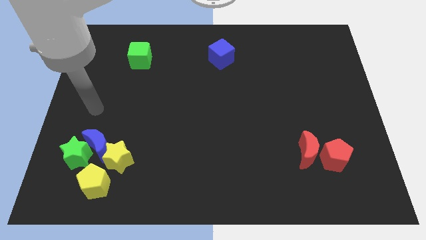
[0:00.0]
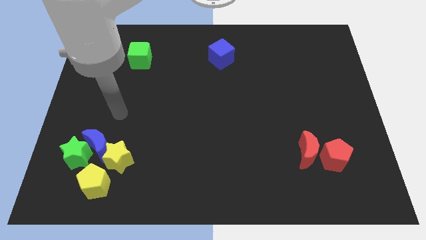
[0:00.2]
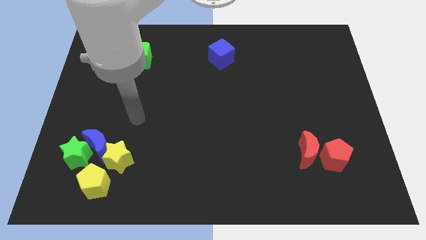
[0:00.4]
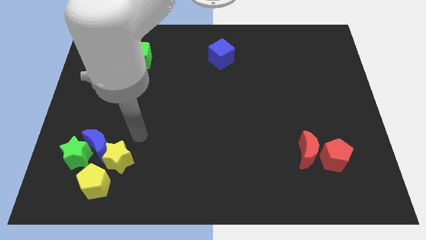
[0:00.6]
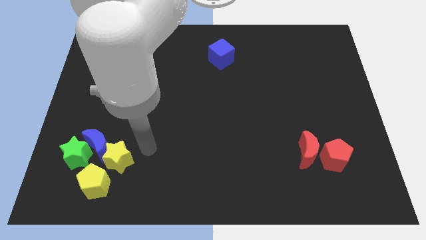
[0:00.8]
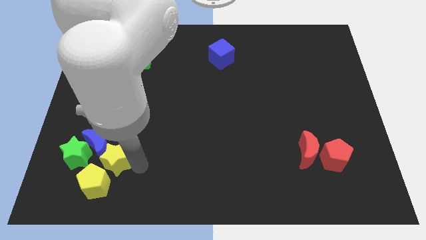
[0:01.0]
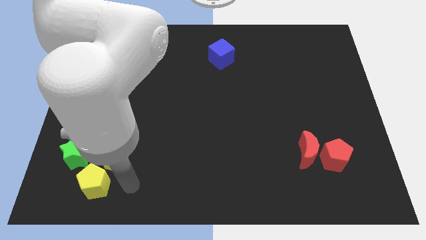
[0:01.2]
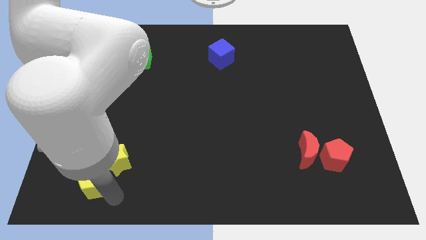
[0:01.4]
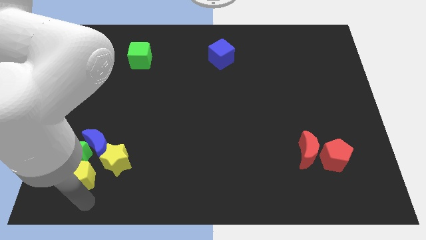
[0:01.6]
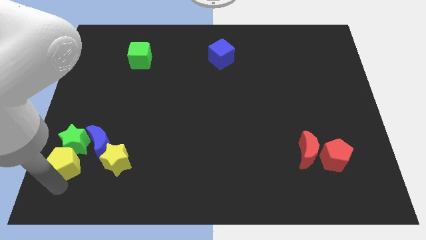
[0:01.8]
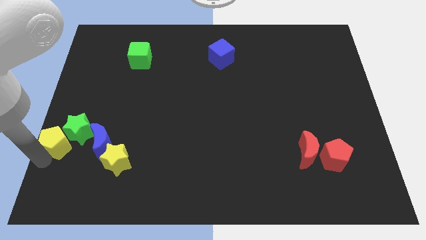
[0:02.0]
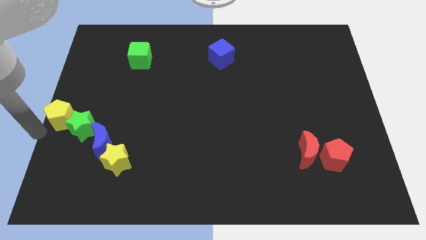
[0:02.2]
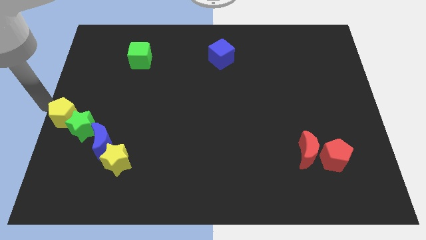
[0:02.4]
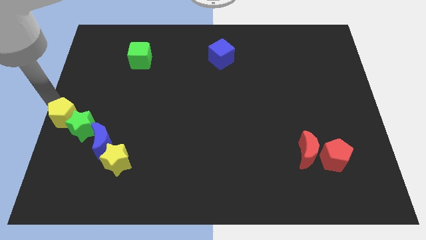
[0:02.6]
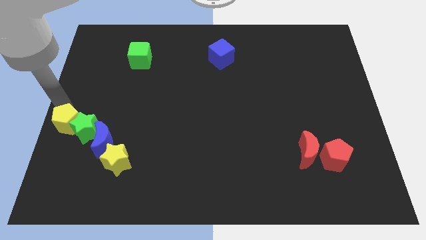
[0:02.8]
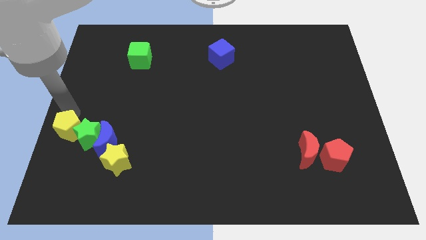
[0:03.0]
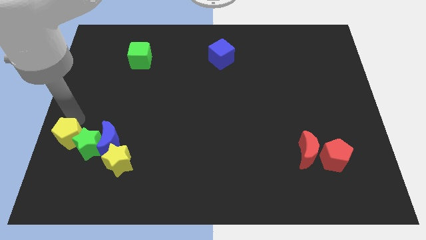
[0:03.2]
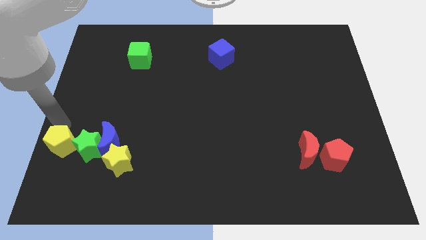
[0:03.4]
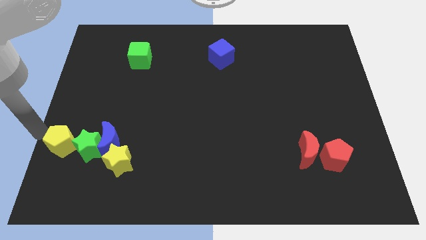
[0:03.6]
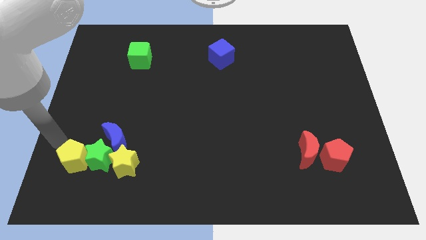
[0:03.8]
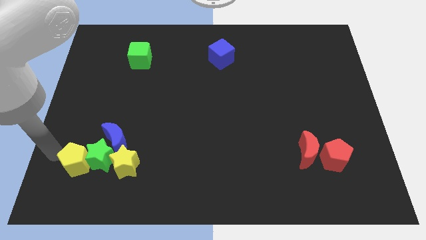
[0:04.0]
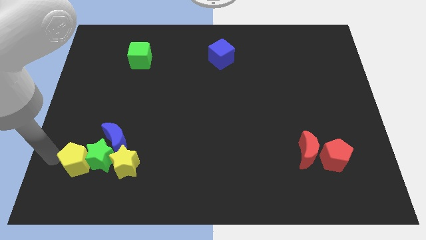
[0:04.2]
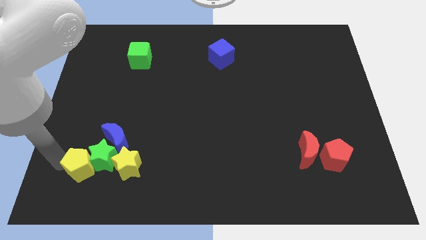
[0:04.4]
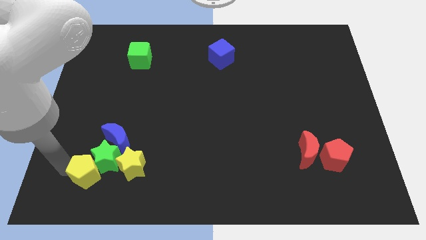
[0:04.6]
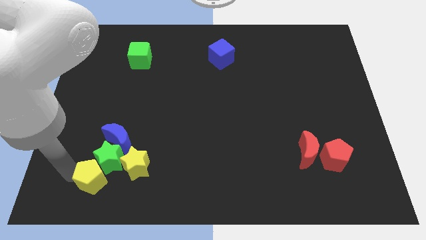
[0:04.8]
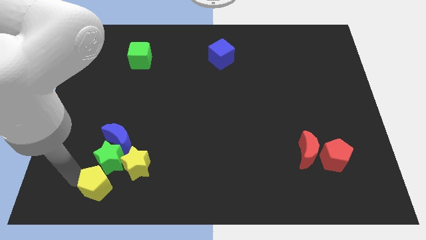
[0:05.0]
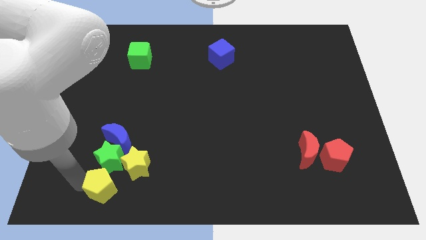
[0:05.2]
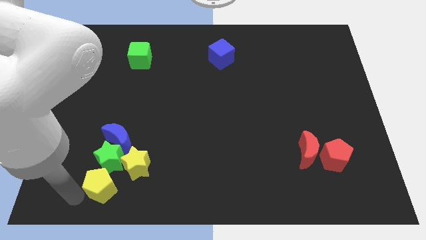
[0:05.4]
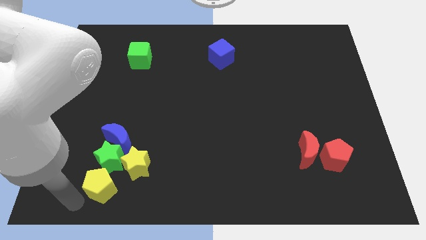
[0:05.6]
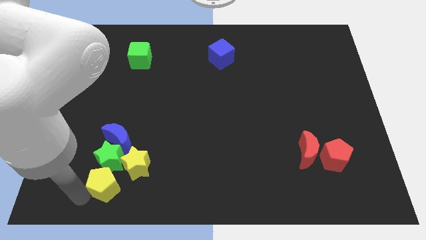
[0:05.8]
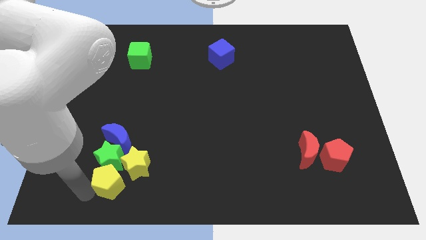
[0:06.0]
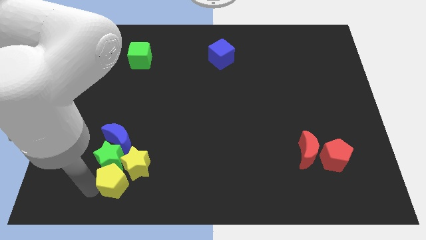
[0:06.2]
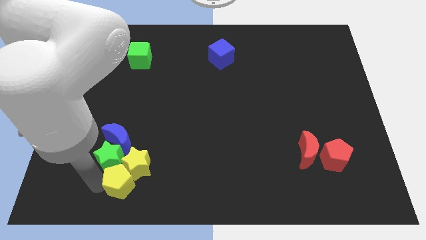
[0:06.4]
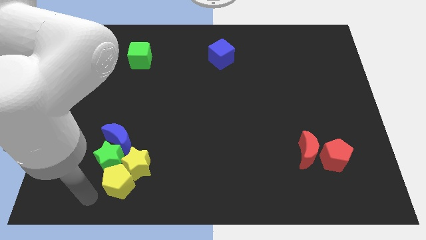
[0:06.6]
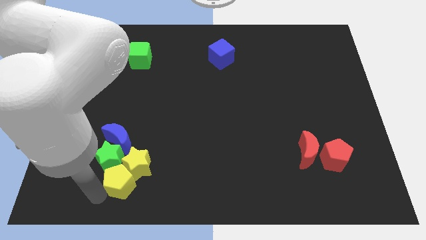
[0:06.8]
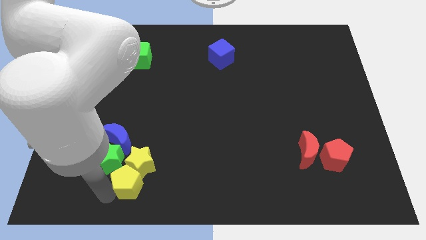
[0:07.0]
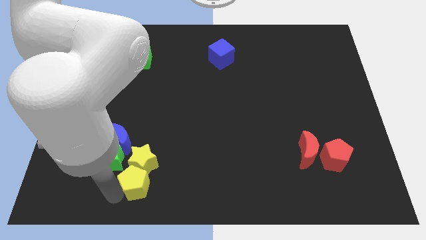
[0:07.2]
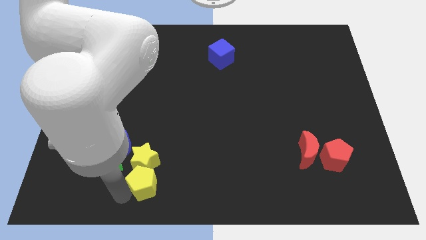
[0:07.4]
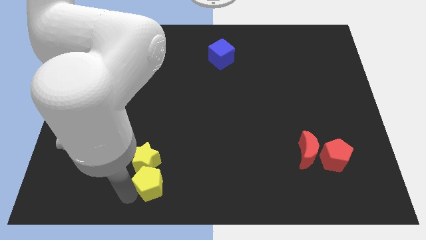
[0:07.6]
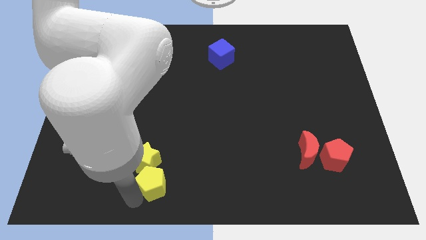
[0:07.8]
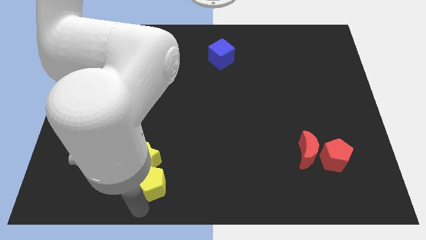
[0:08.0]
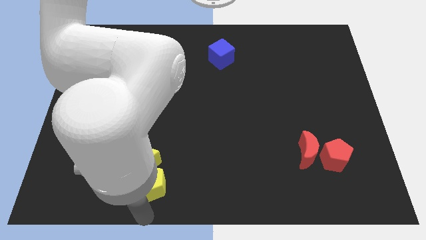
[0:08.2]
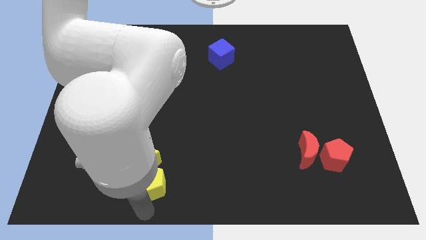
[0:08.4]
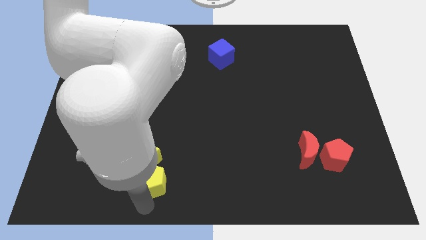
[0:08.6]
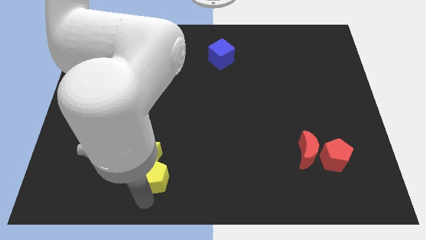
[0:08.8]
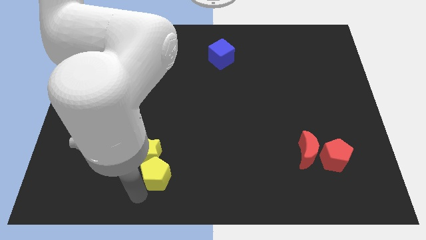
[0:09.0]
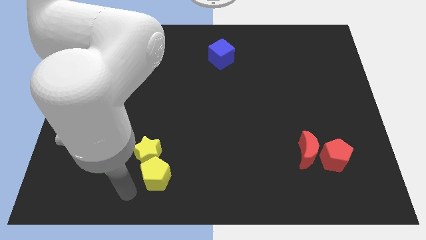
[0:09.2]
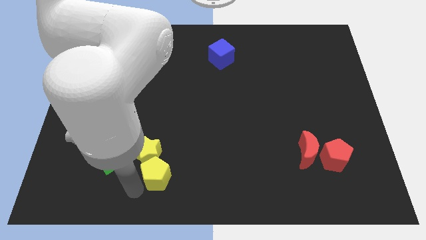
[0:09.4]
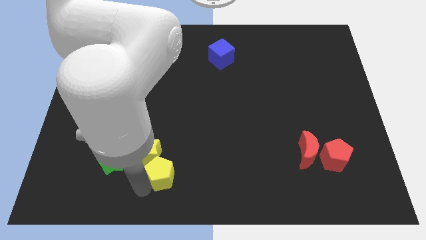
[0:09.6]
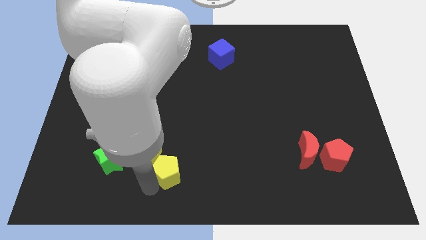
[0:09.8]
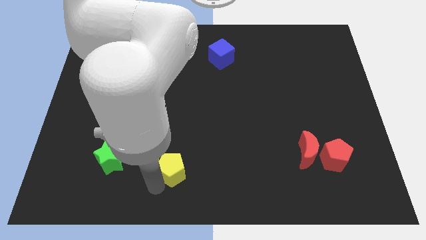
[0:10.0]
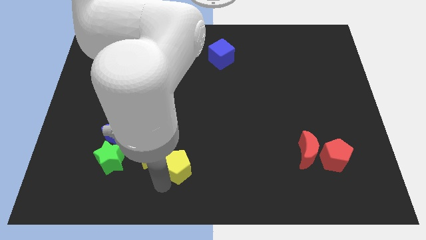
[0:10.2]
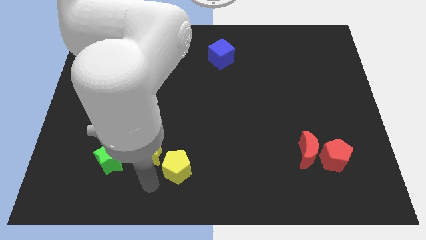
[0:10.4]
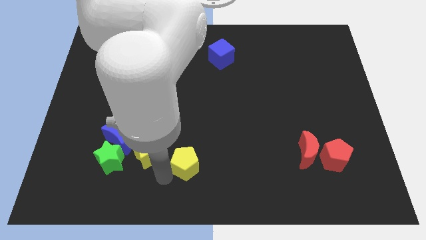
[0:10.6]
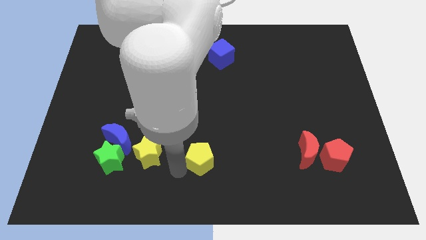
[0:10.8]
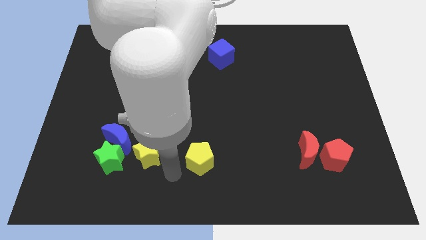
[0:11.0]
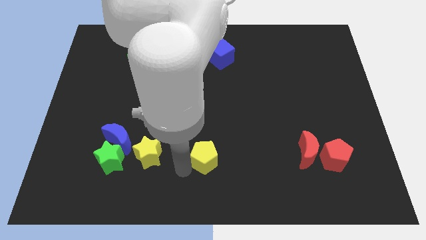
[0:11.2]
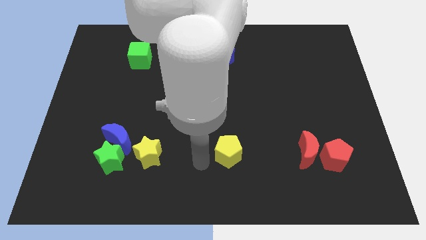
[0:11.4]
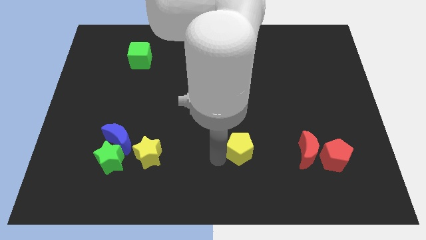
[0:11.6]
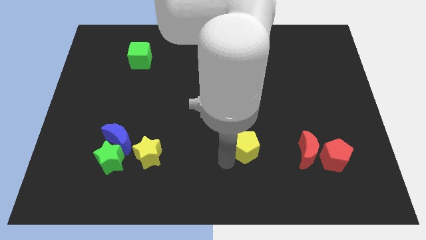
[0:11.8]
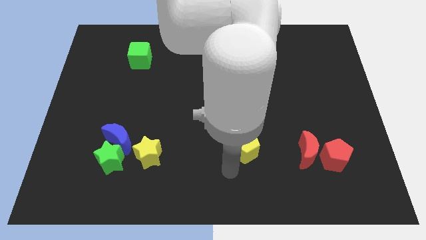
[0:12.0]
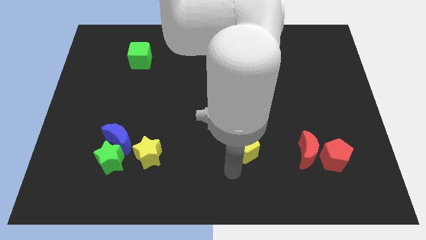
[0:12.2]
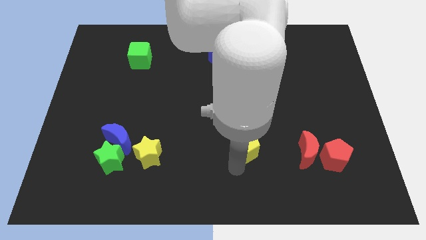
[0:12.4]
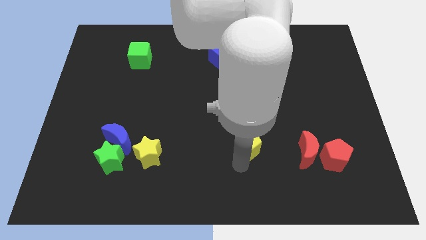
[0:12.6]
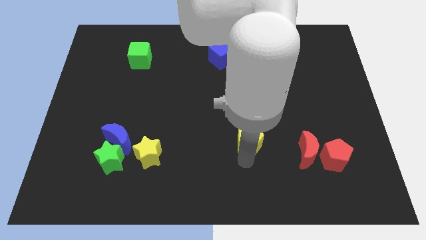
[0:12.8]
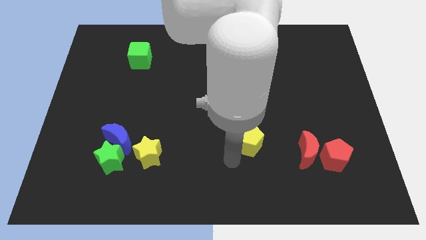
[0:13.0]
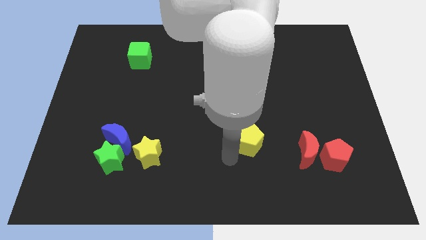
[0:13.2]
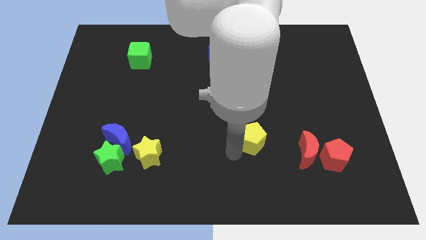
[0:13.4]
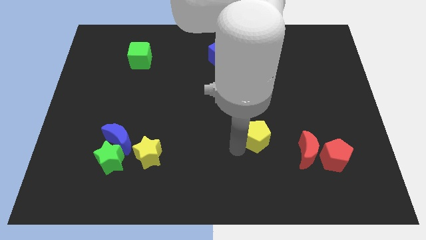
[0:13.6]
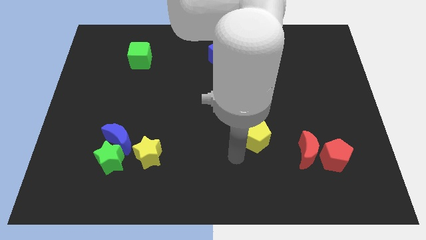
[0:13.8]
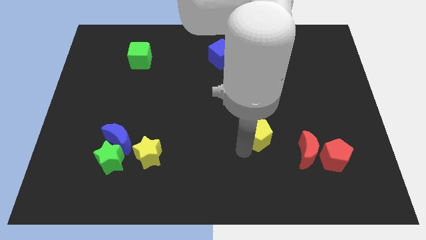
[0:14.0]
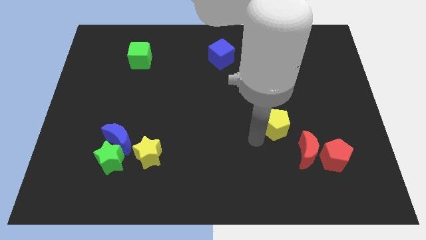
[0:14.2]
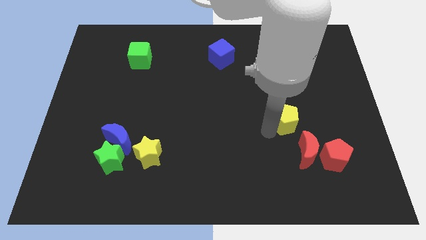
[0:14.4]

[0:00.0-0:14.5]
push the yellow pentagon above the red moon
